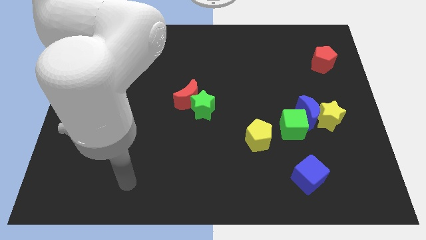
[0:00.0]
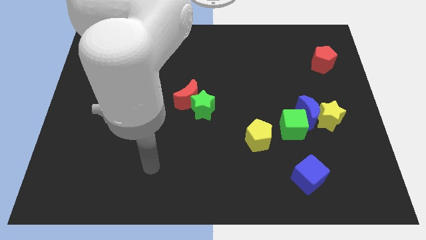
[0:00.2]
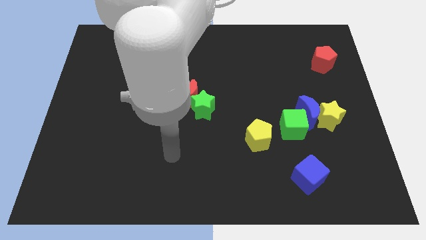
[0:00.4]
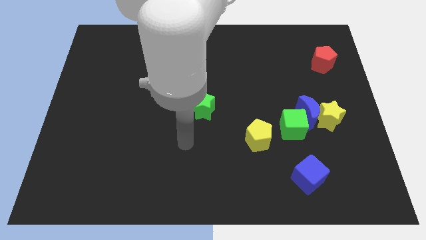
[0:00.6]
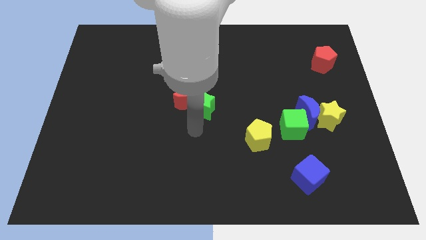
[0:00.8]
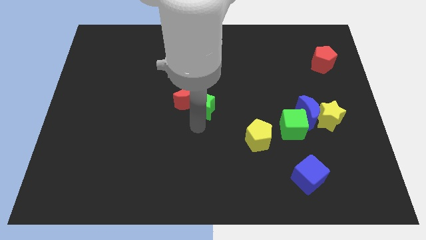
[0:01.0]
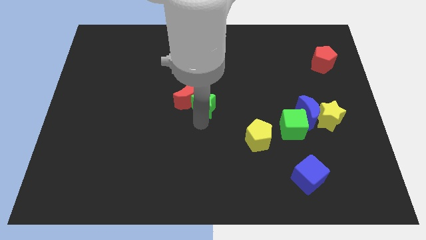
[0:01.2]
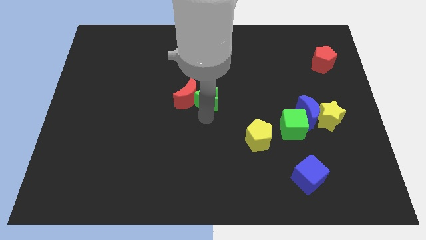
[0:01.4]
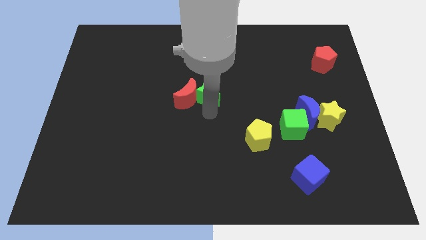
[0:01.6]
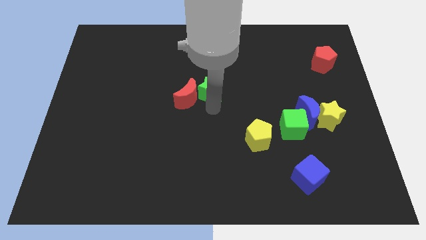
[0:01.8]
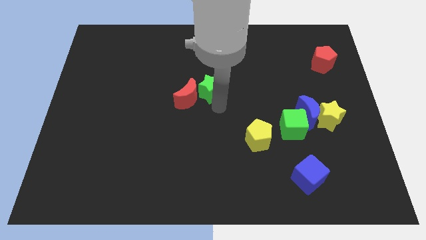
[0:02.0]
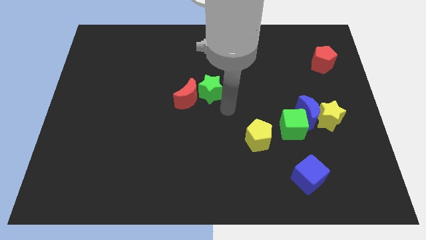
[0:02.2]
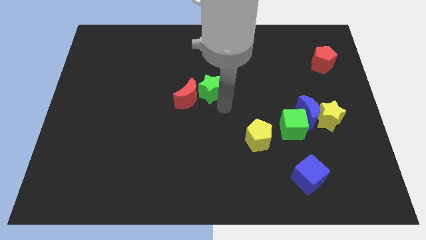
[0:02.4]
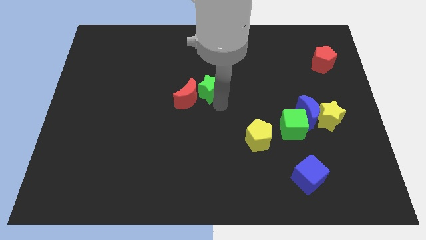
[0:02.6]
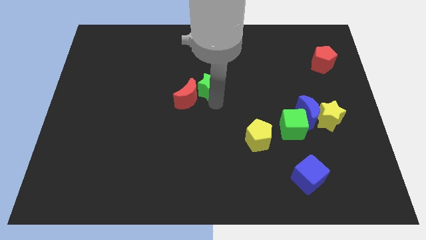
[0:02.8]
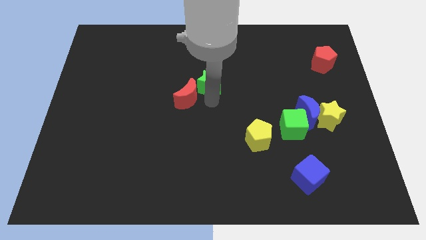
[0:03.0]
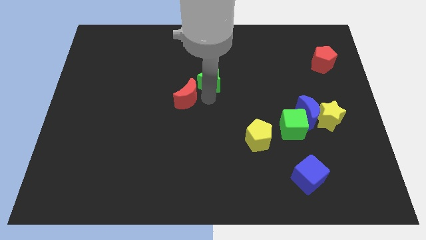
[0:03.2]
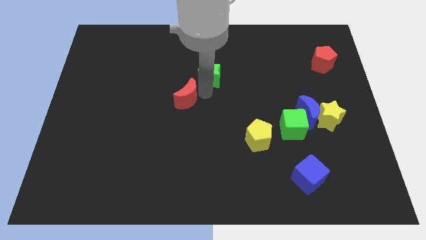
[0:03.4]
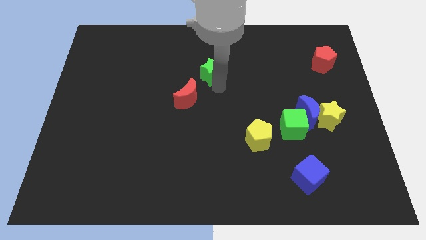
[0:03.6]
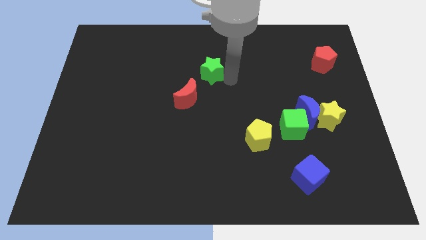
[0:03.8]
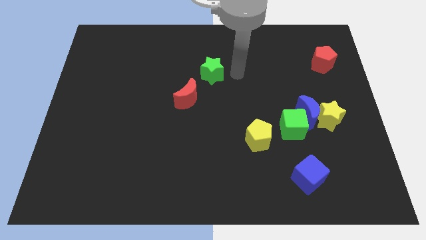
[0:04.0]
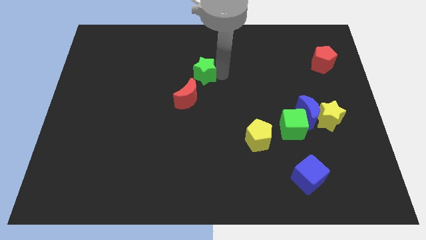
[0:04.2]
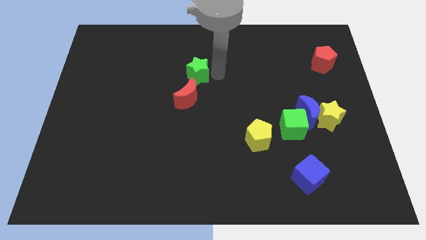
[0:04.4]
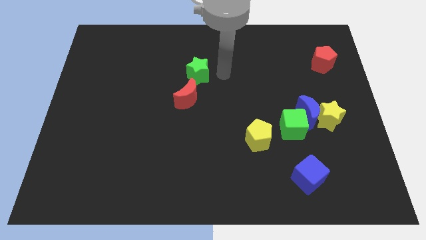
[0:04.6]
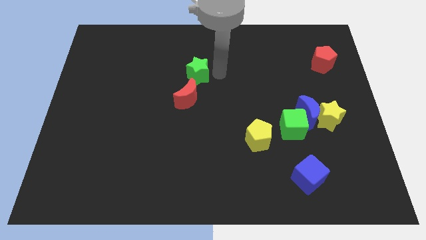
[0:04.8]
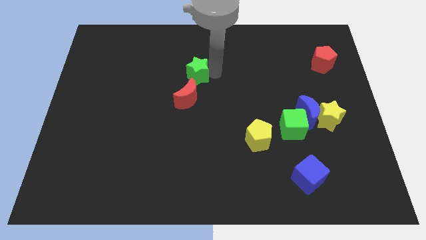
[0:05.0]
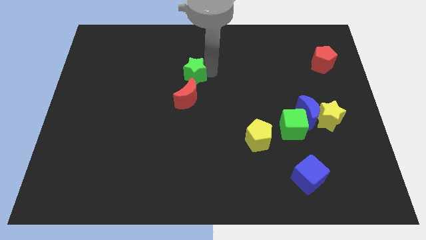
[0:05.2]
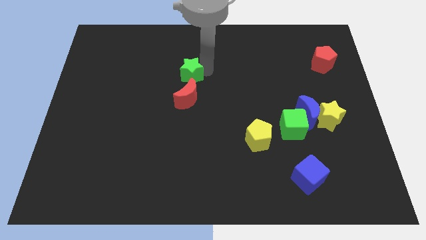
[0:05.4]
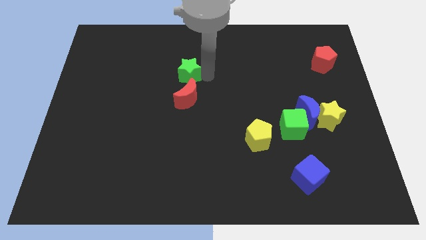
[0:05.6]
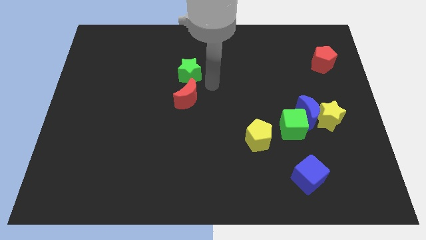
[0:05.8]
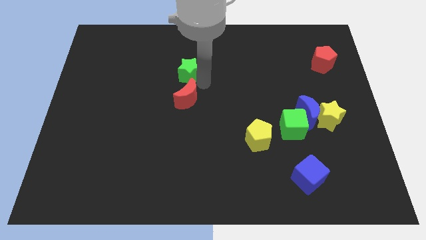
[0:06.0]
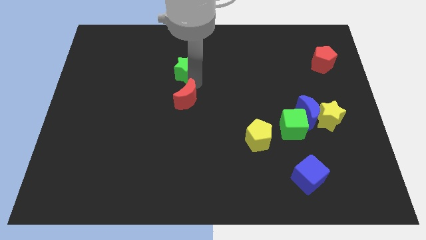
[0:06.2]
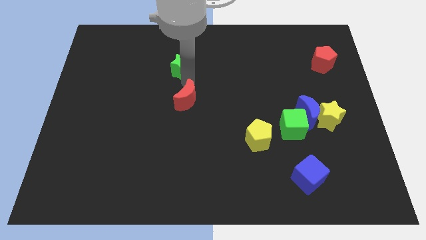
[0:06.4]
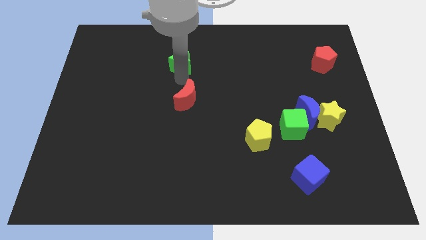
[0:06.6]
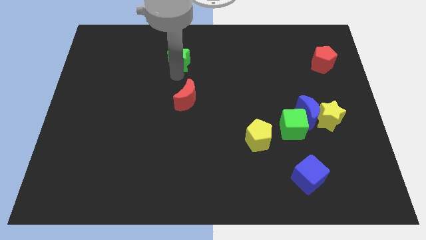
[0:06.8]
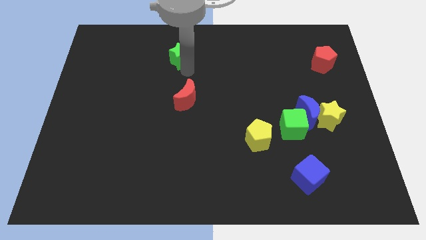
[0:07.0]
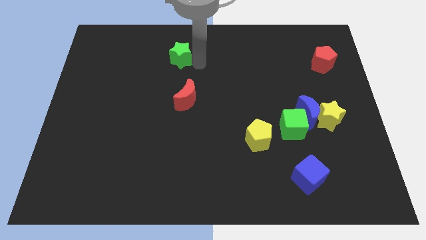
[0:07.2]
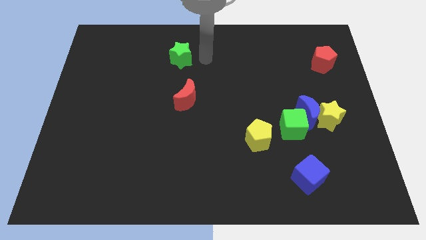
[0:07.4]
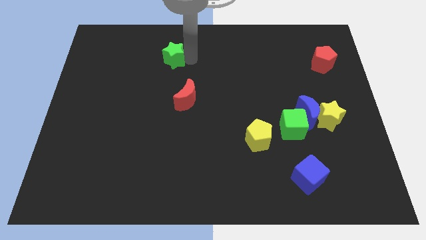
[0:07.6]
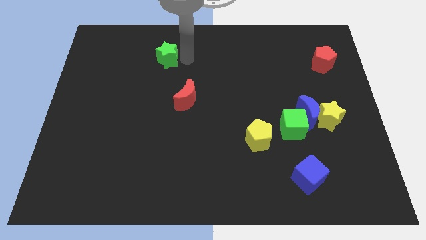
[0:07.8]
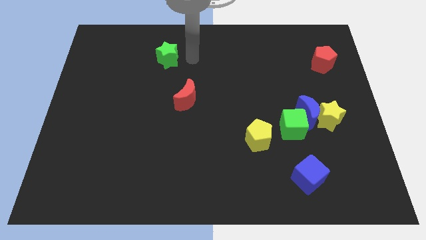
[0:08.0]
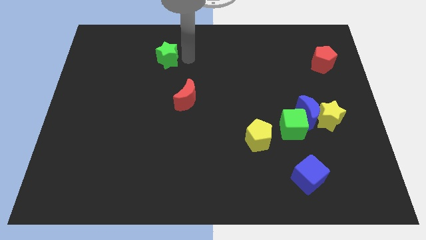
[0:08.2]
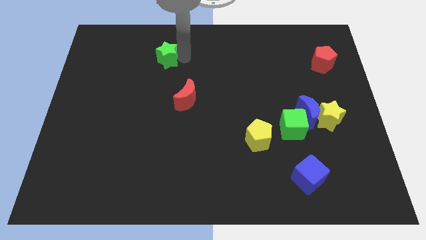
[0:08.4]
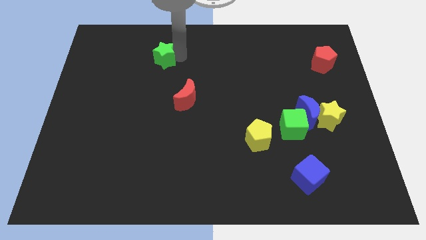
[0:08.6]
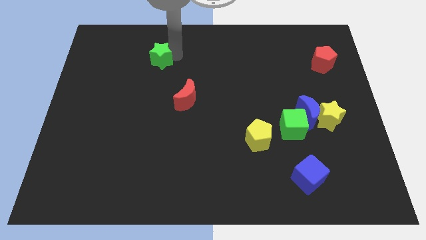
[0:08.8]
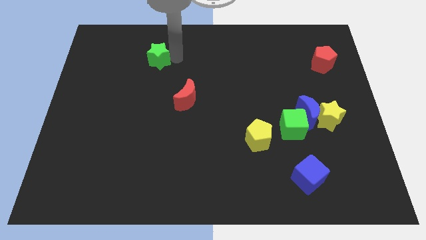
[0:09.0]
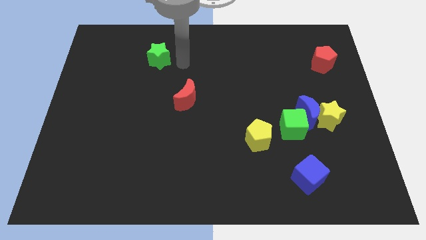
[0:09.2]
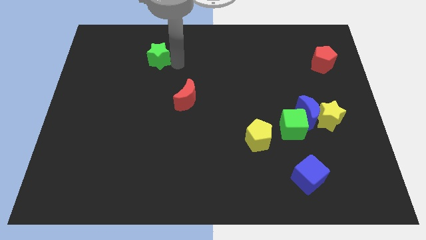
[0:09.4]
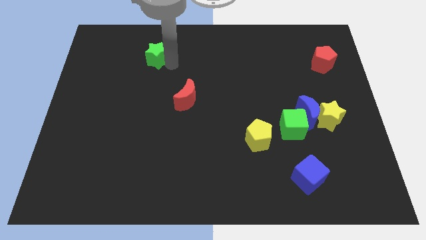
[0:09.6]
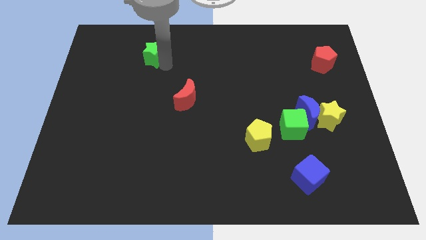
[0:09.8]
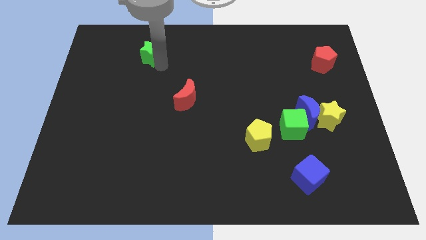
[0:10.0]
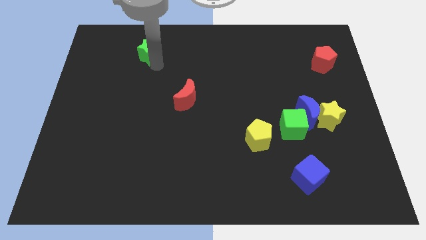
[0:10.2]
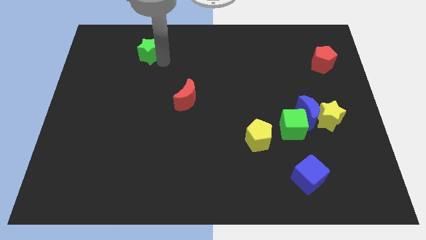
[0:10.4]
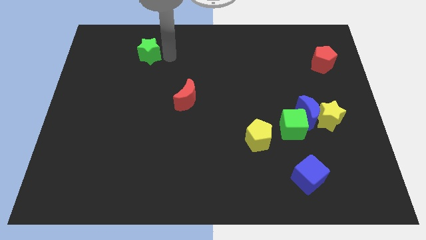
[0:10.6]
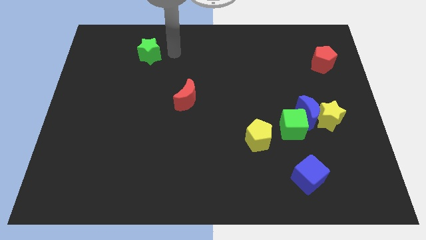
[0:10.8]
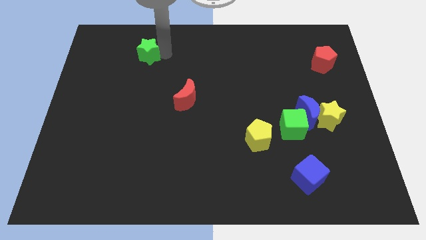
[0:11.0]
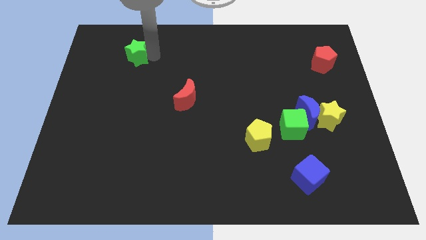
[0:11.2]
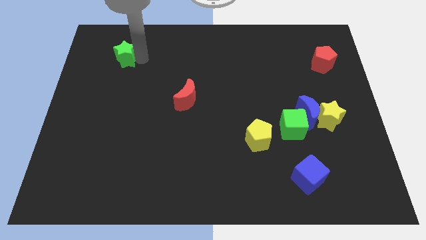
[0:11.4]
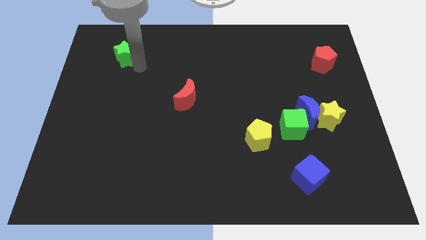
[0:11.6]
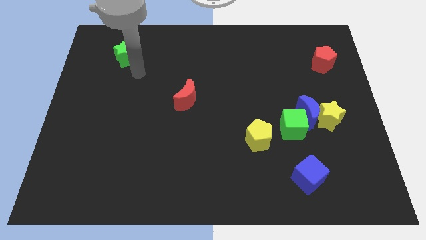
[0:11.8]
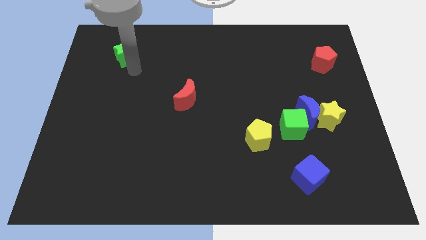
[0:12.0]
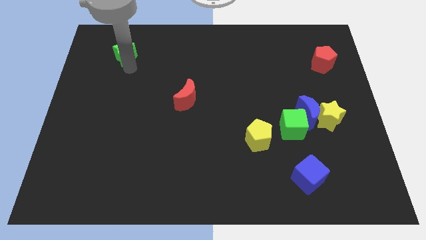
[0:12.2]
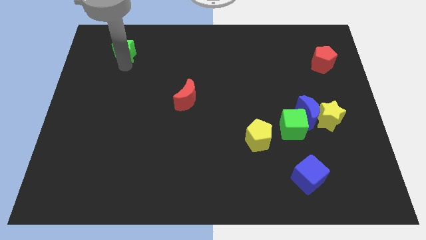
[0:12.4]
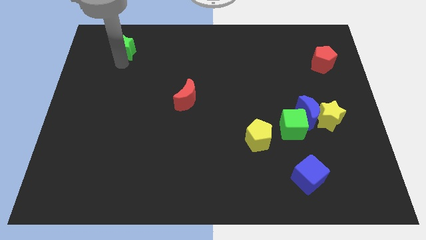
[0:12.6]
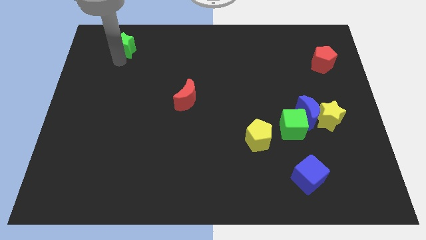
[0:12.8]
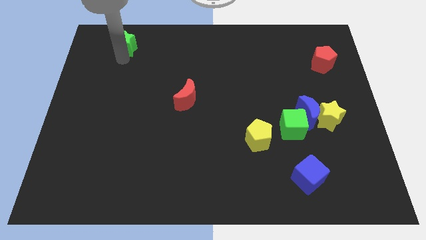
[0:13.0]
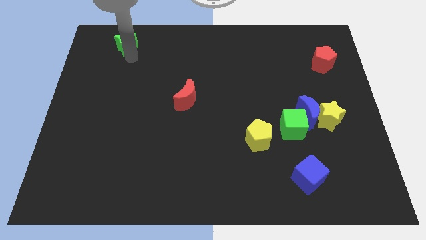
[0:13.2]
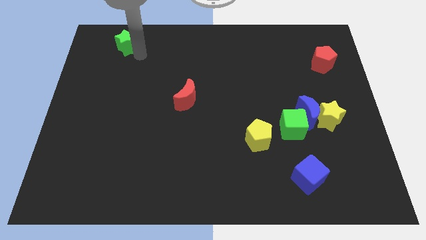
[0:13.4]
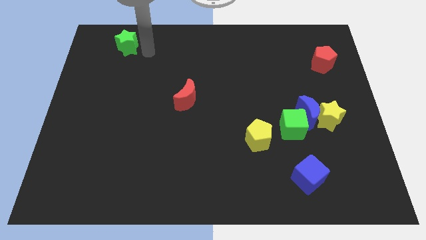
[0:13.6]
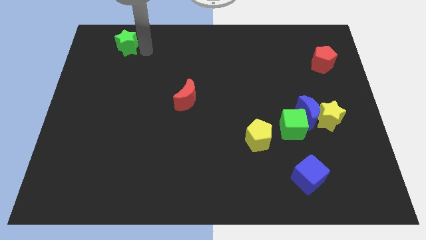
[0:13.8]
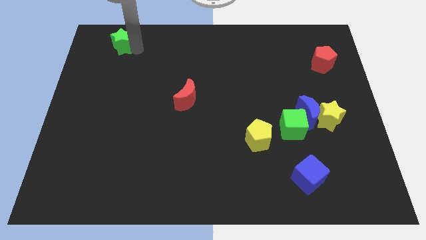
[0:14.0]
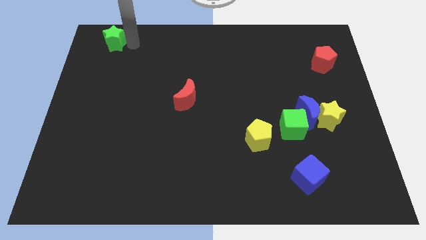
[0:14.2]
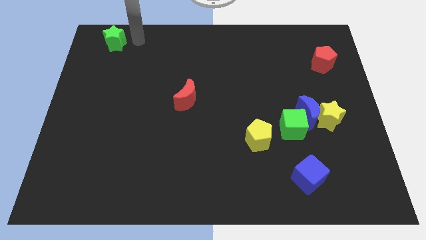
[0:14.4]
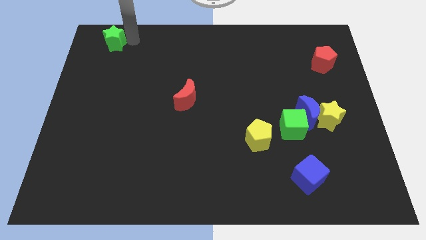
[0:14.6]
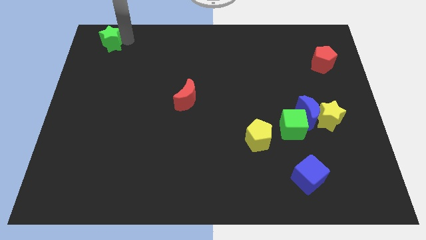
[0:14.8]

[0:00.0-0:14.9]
push the green star to the top left
